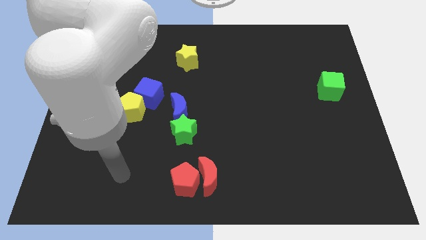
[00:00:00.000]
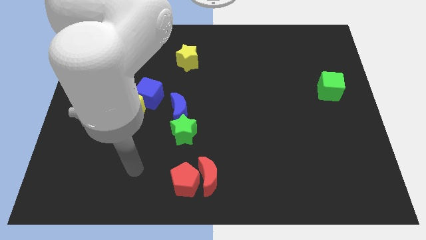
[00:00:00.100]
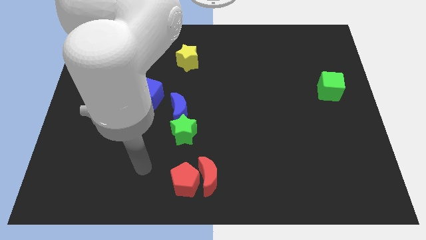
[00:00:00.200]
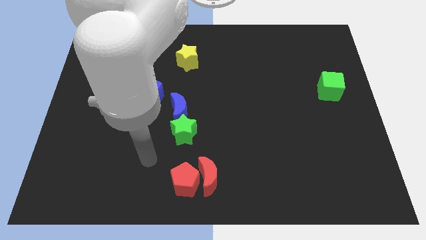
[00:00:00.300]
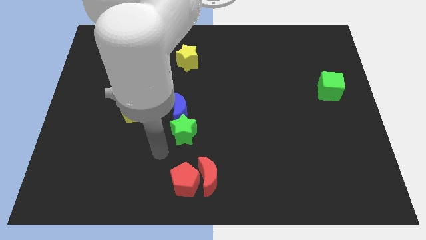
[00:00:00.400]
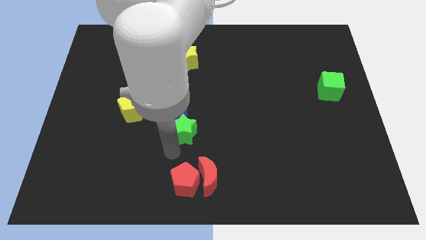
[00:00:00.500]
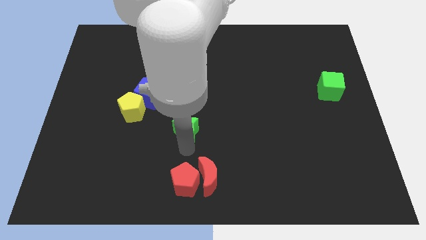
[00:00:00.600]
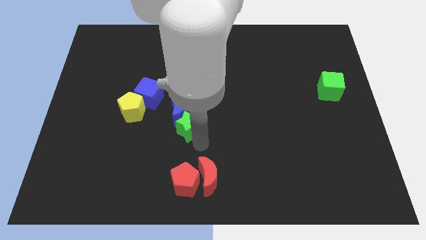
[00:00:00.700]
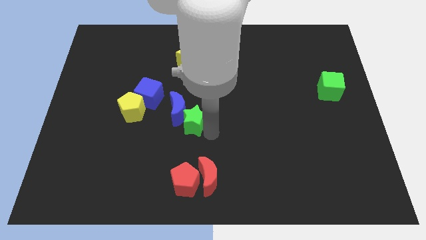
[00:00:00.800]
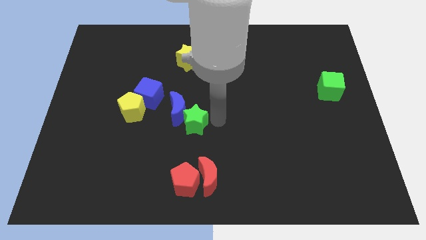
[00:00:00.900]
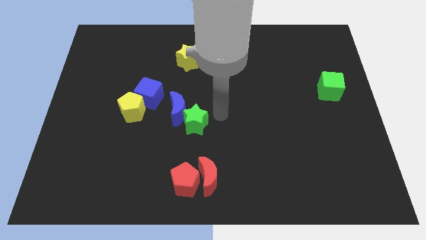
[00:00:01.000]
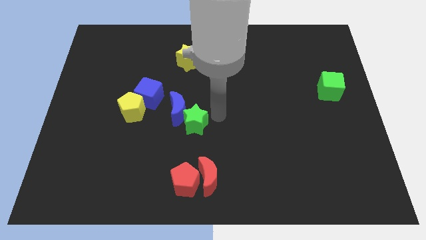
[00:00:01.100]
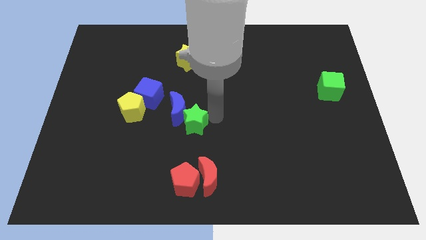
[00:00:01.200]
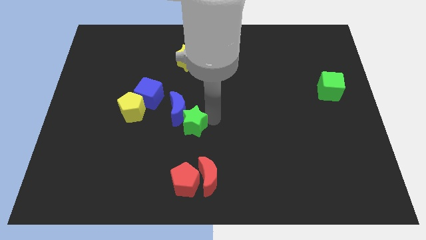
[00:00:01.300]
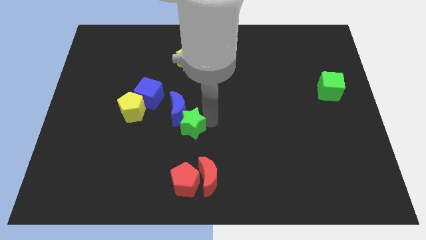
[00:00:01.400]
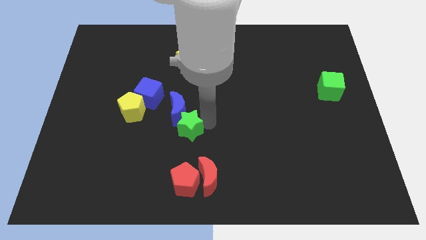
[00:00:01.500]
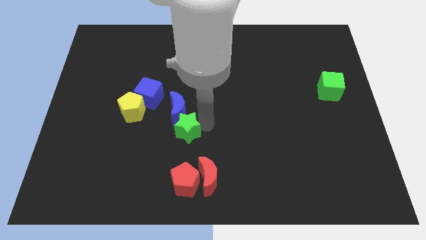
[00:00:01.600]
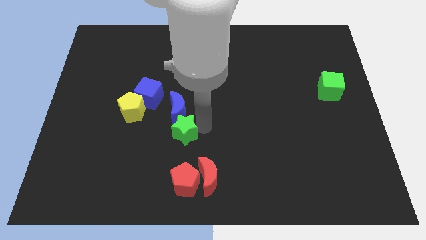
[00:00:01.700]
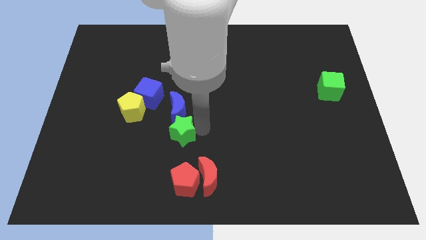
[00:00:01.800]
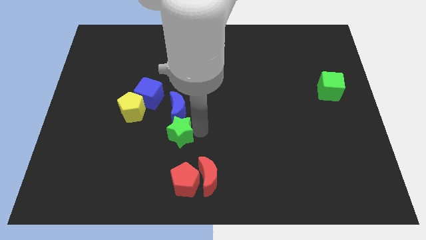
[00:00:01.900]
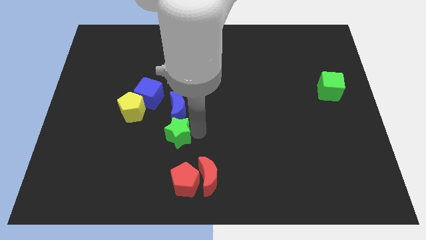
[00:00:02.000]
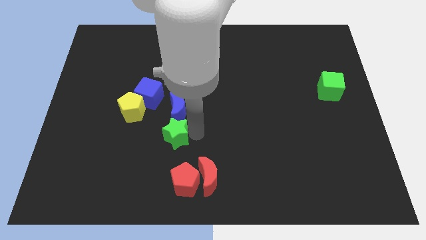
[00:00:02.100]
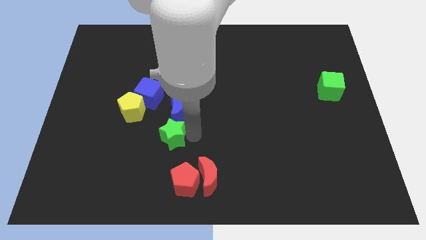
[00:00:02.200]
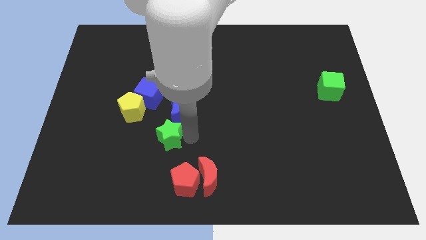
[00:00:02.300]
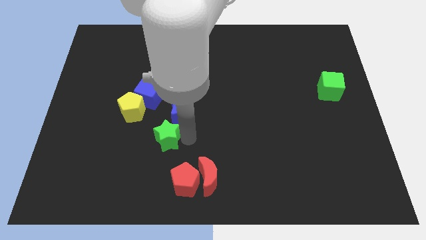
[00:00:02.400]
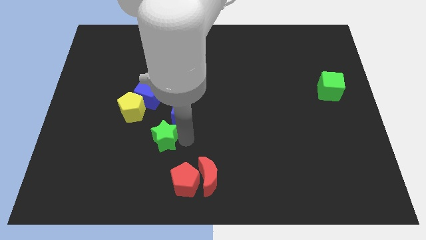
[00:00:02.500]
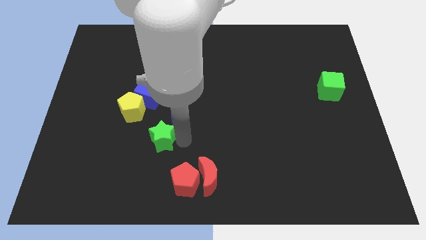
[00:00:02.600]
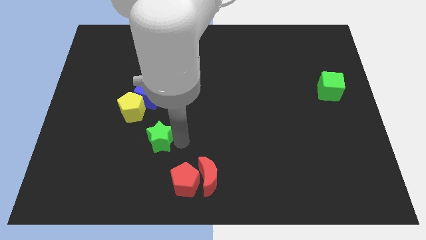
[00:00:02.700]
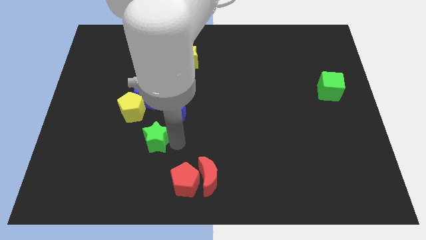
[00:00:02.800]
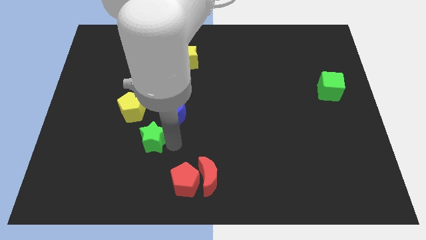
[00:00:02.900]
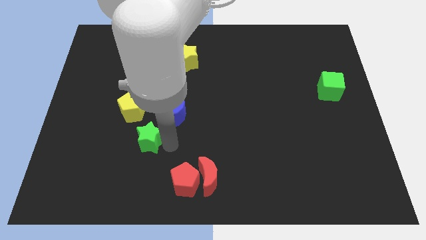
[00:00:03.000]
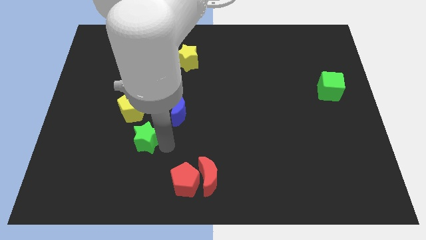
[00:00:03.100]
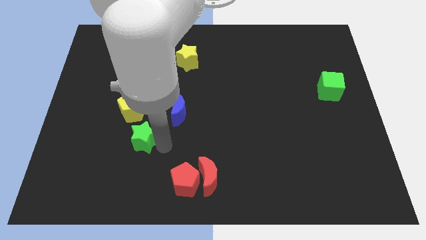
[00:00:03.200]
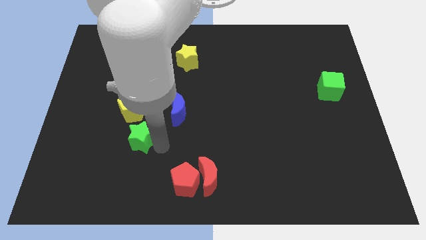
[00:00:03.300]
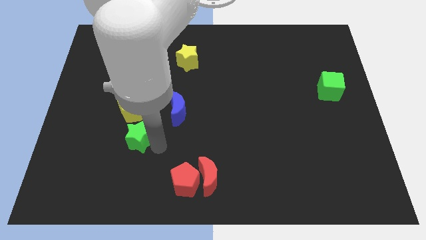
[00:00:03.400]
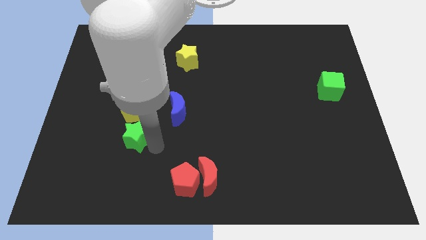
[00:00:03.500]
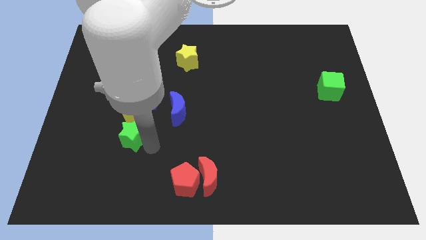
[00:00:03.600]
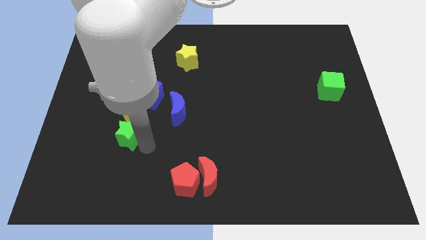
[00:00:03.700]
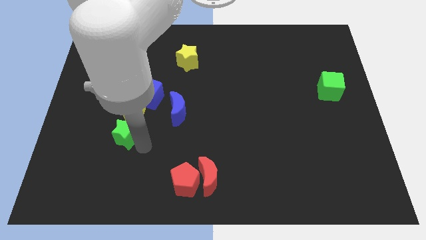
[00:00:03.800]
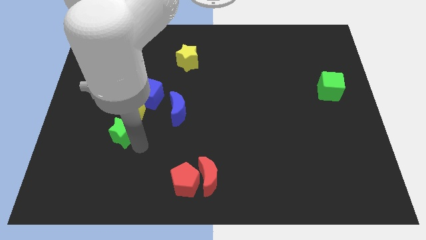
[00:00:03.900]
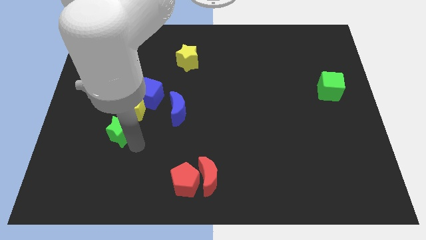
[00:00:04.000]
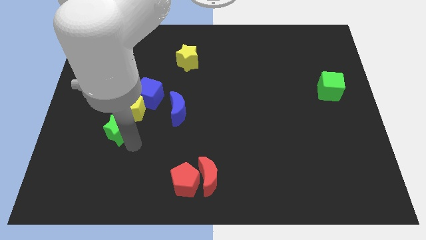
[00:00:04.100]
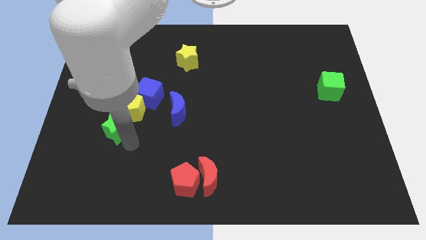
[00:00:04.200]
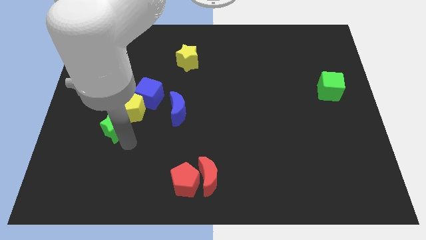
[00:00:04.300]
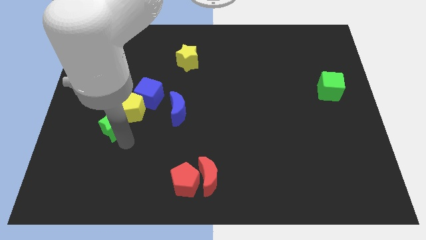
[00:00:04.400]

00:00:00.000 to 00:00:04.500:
slightly move the green star upwards and left diagonally

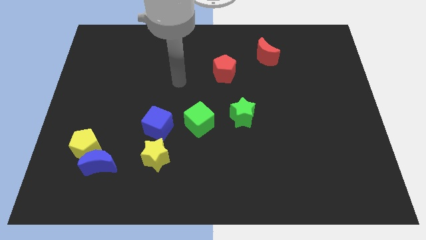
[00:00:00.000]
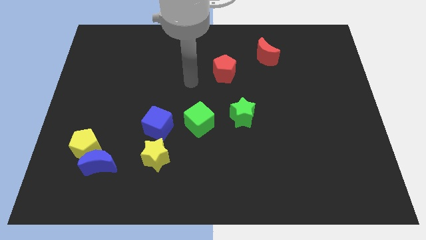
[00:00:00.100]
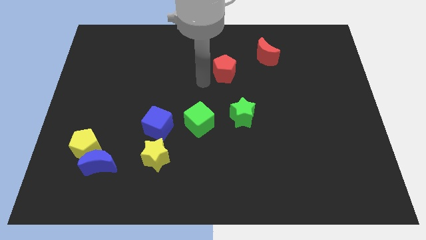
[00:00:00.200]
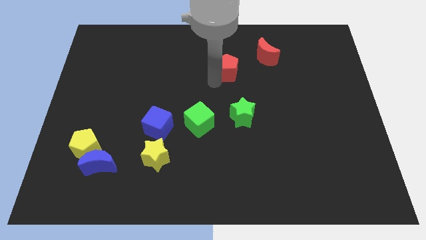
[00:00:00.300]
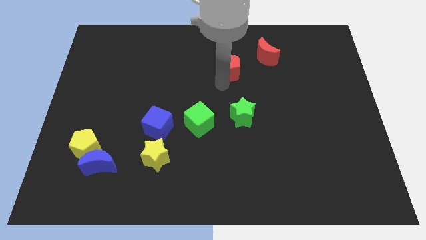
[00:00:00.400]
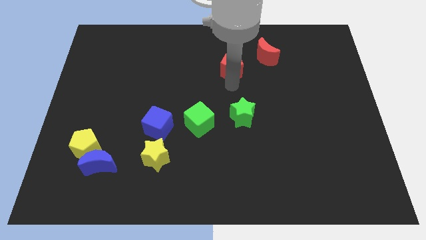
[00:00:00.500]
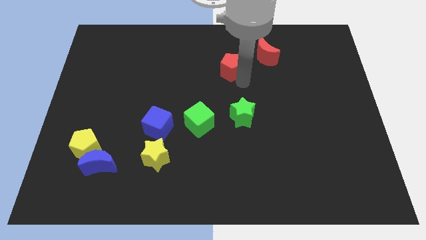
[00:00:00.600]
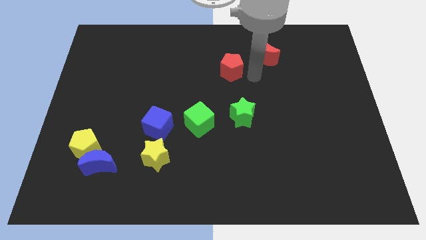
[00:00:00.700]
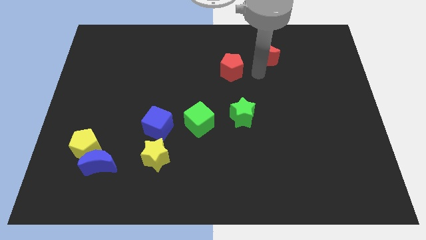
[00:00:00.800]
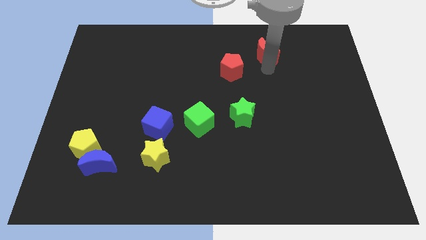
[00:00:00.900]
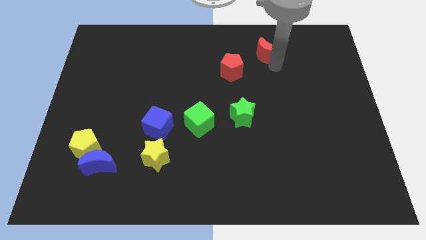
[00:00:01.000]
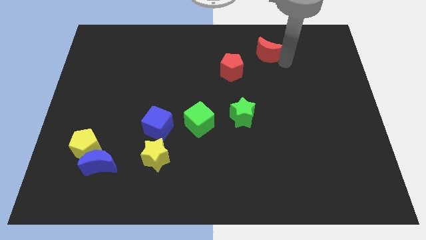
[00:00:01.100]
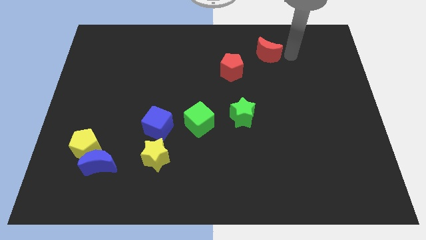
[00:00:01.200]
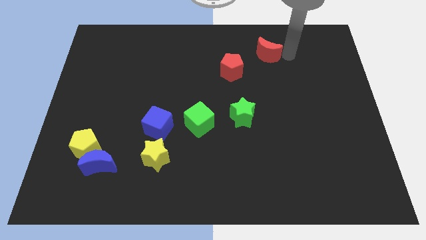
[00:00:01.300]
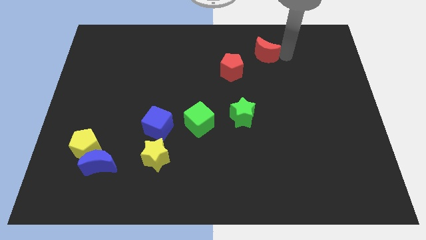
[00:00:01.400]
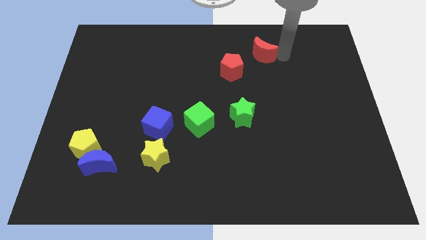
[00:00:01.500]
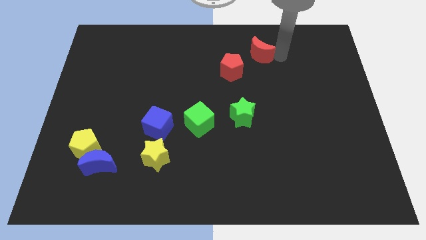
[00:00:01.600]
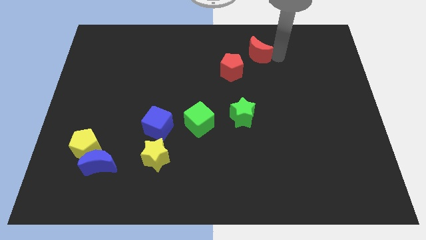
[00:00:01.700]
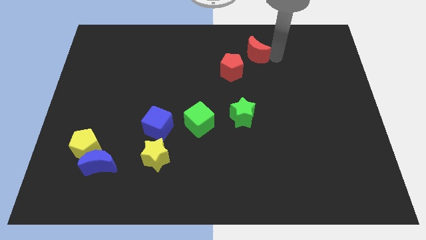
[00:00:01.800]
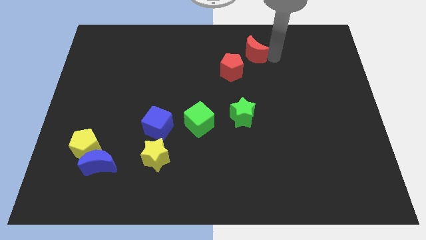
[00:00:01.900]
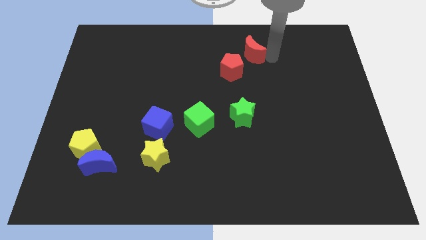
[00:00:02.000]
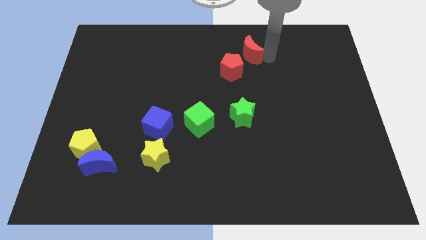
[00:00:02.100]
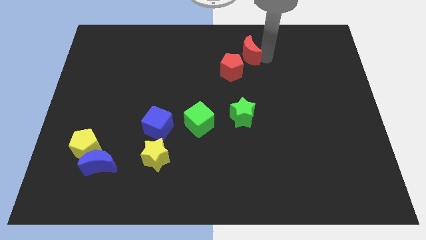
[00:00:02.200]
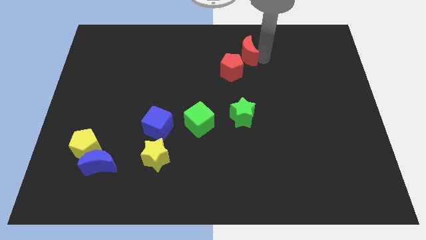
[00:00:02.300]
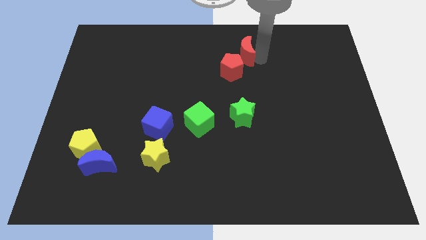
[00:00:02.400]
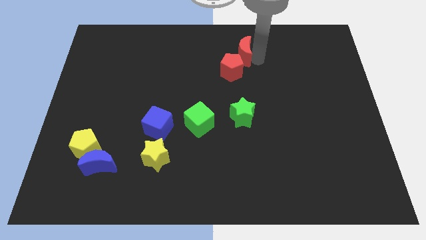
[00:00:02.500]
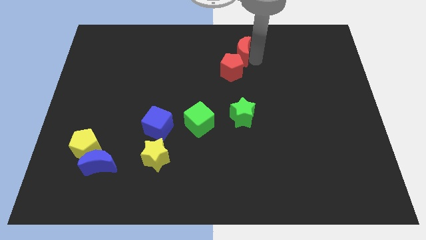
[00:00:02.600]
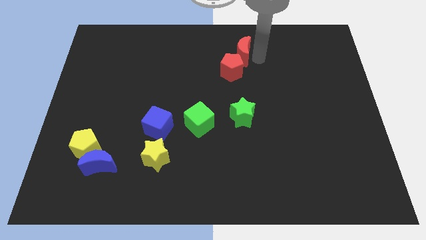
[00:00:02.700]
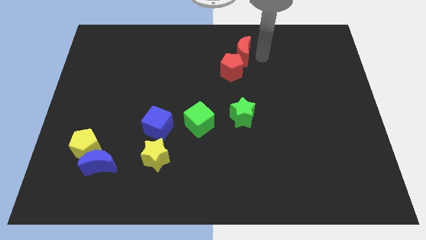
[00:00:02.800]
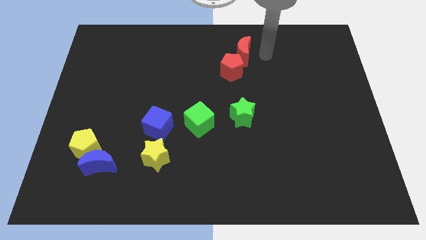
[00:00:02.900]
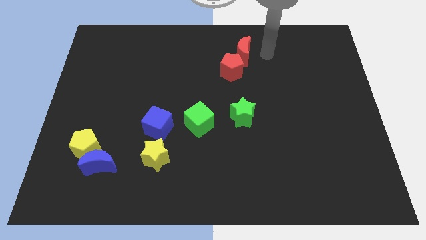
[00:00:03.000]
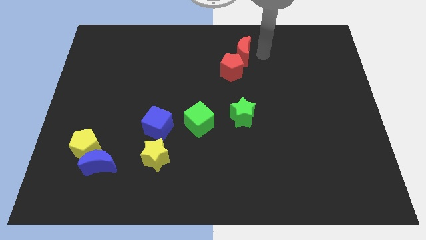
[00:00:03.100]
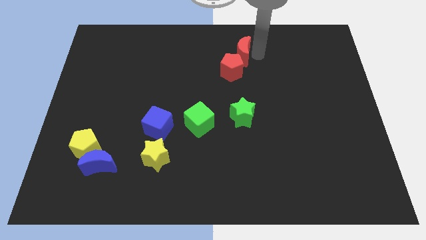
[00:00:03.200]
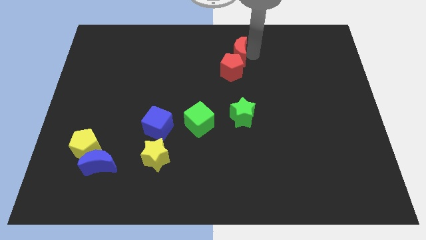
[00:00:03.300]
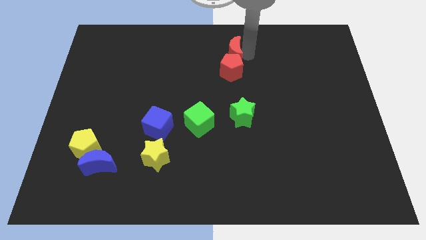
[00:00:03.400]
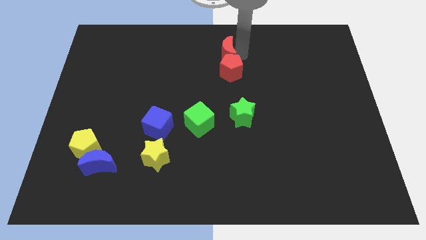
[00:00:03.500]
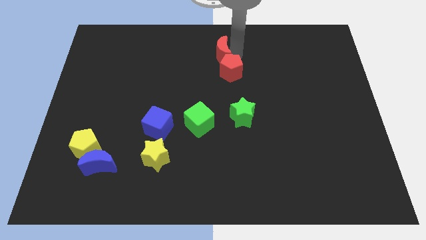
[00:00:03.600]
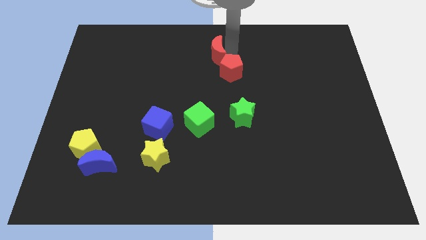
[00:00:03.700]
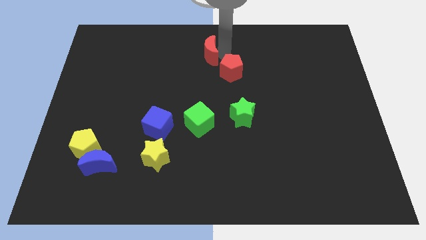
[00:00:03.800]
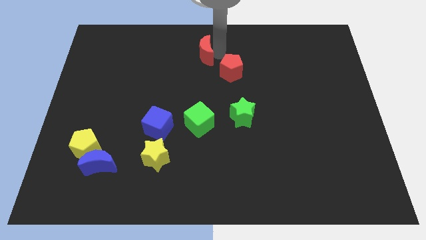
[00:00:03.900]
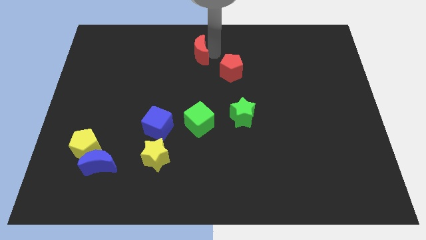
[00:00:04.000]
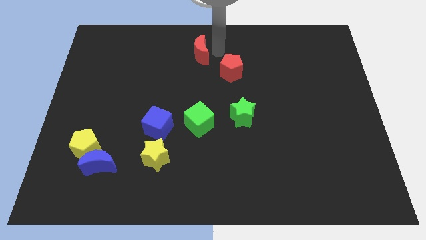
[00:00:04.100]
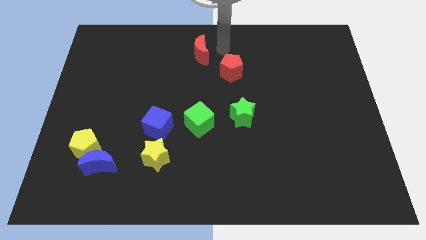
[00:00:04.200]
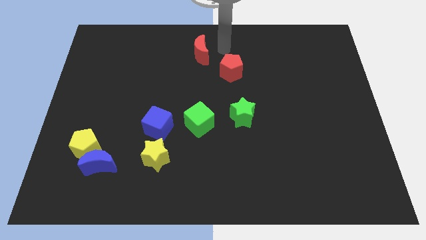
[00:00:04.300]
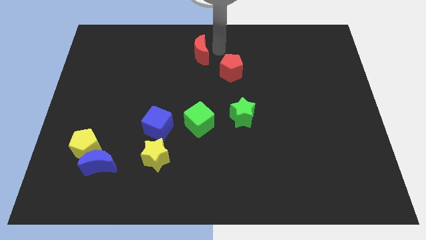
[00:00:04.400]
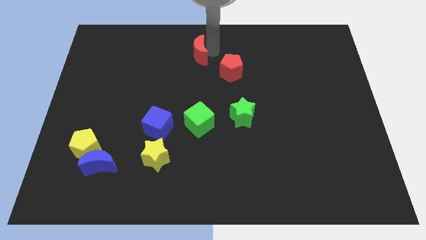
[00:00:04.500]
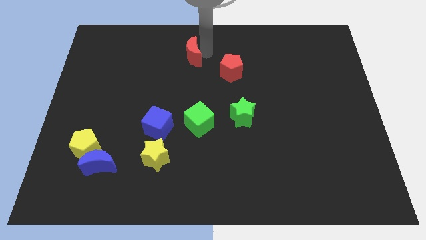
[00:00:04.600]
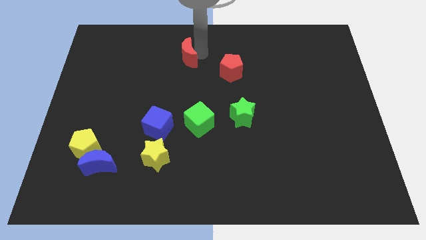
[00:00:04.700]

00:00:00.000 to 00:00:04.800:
slide the red moon left
